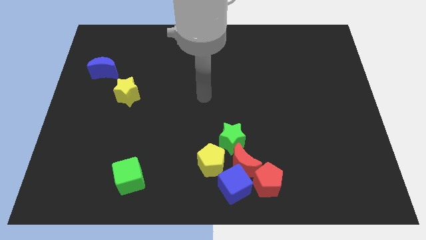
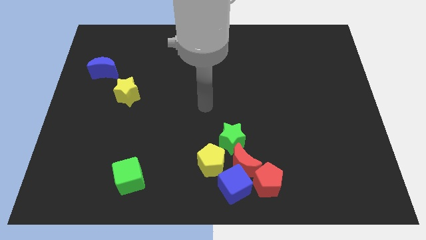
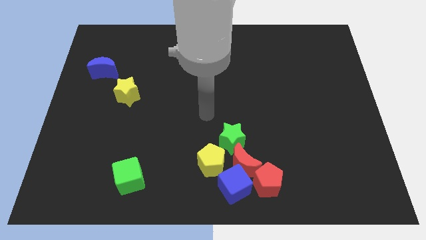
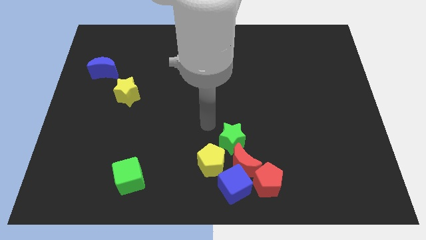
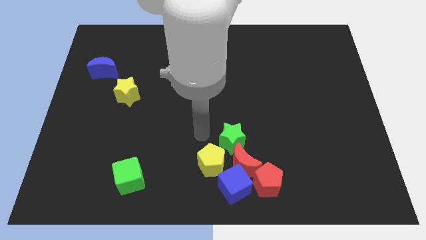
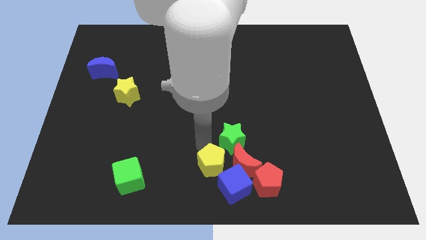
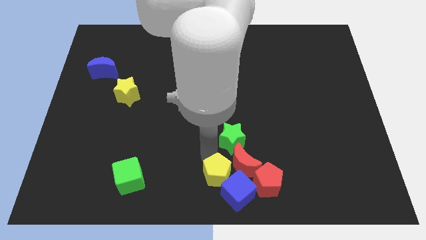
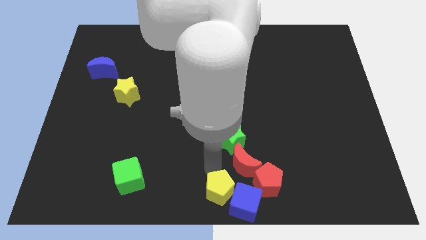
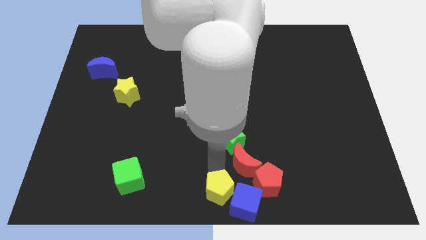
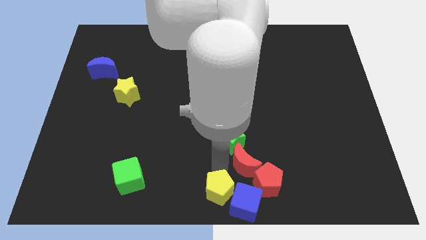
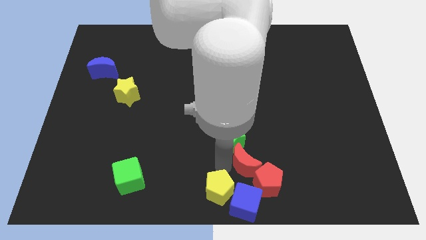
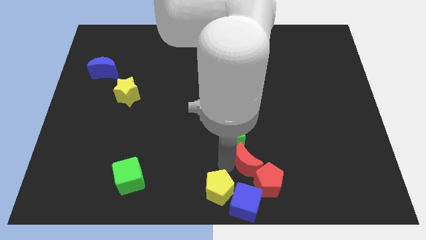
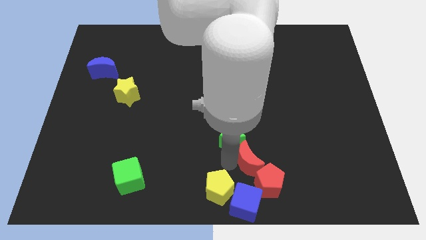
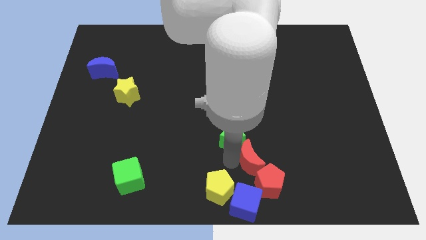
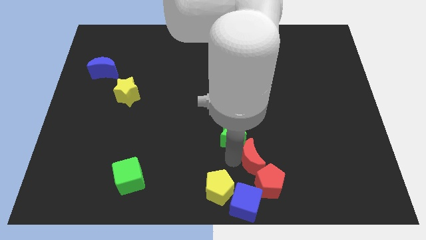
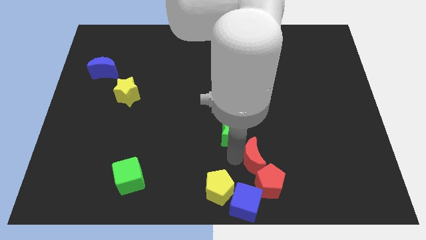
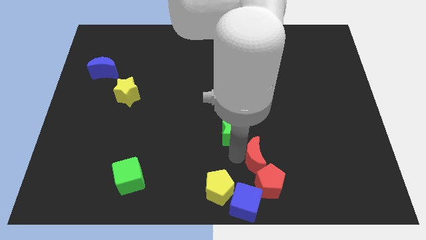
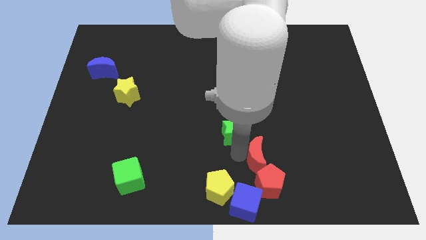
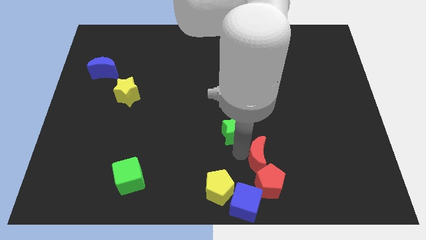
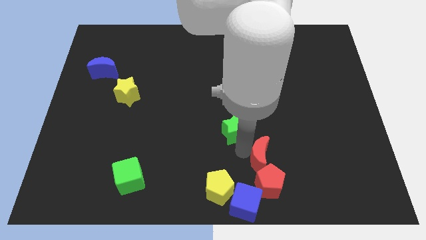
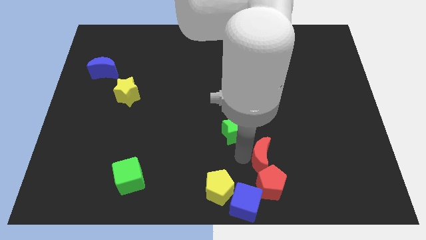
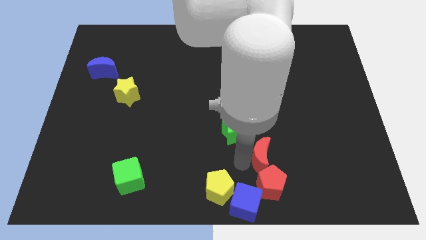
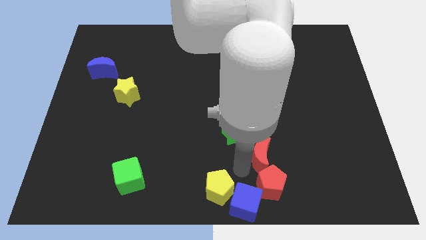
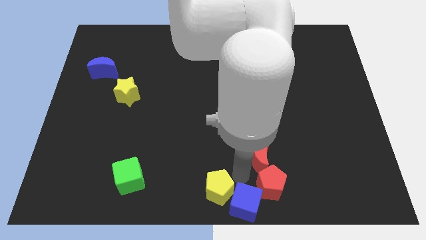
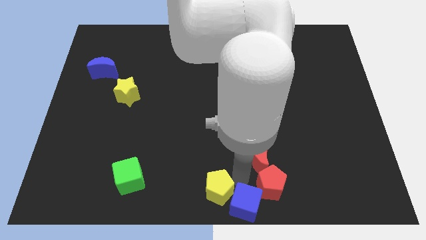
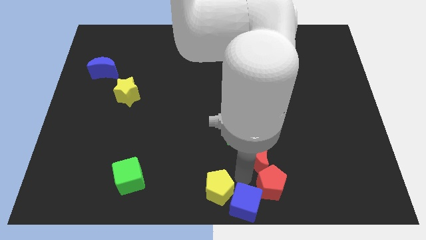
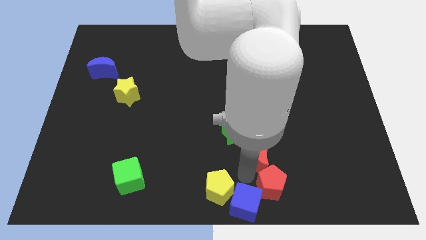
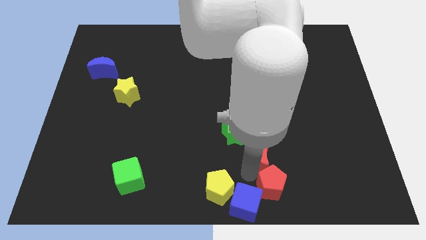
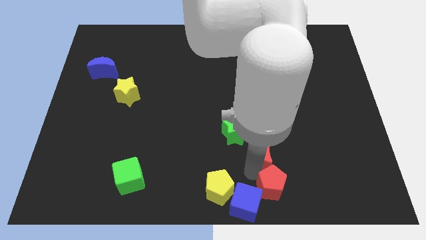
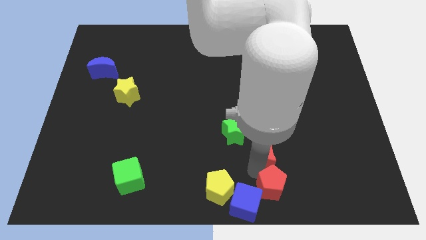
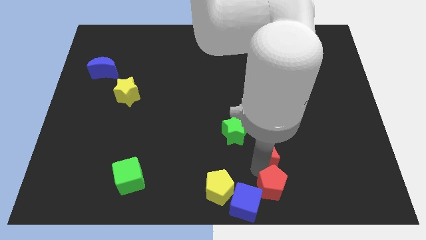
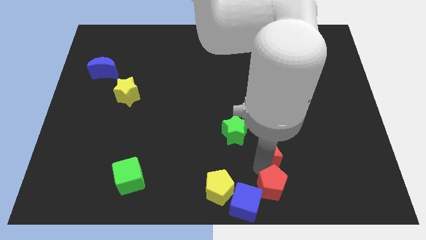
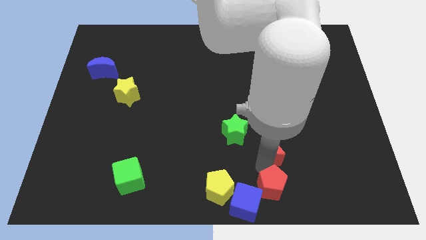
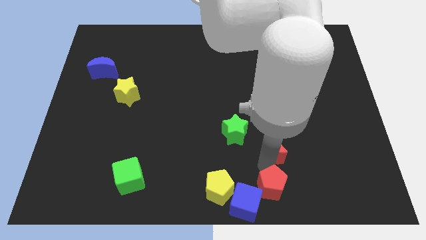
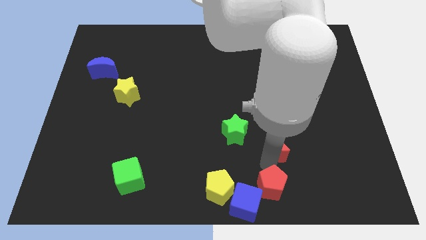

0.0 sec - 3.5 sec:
pull the red moon apart from the group of blocks

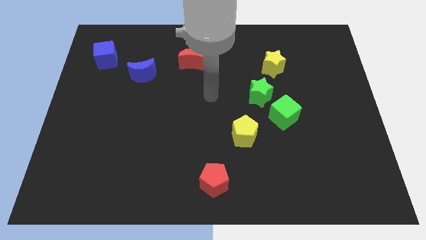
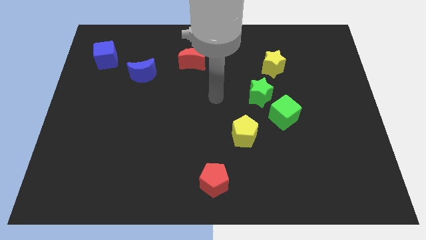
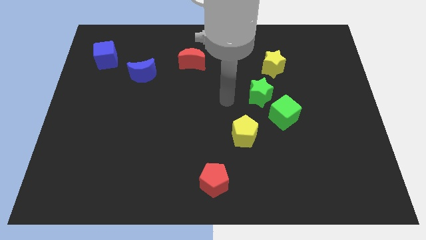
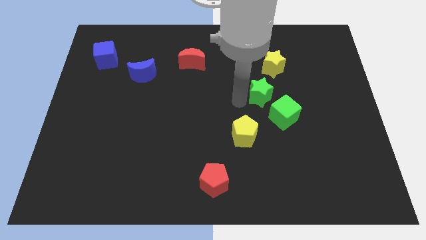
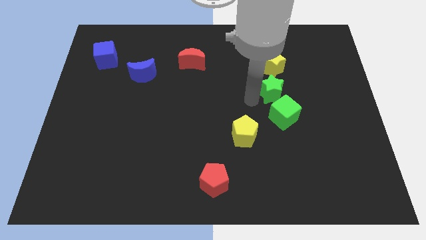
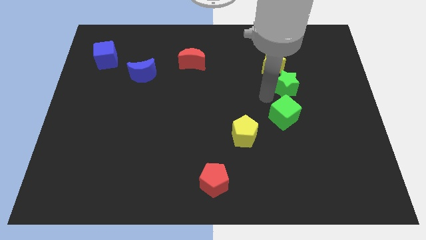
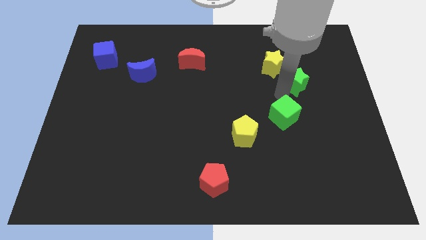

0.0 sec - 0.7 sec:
move the green cube away from the green star

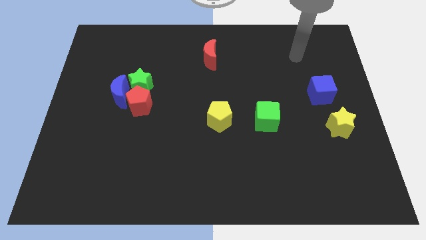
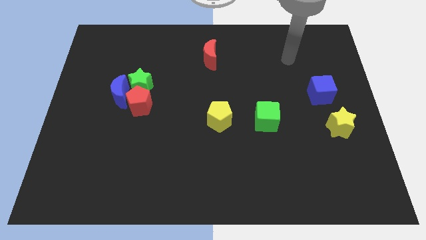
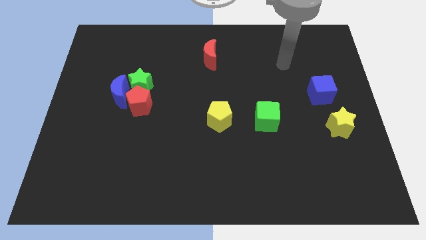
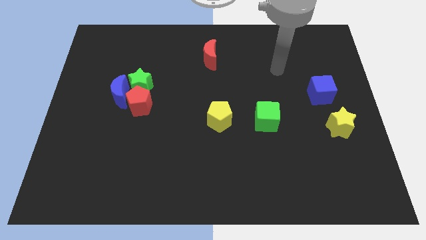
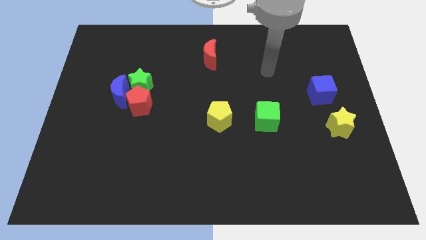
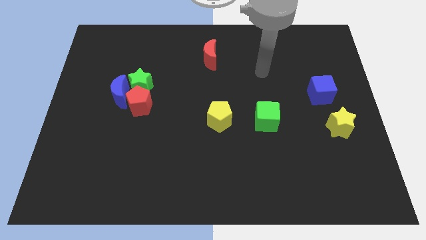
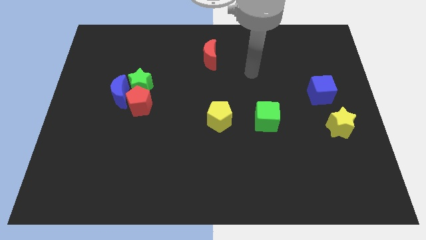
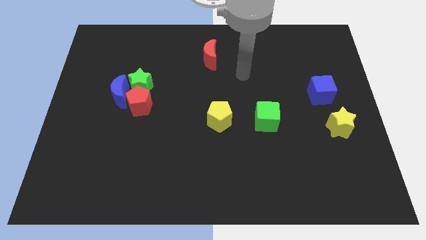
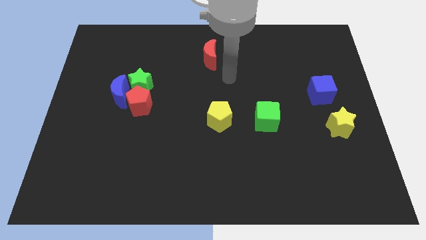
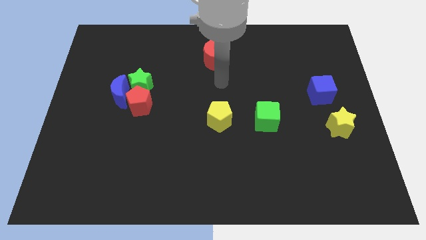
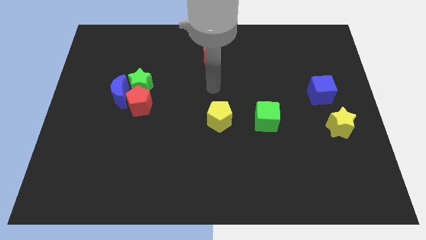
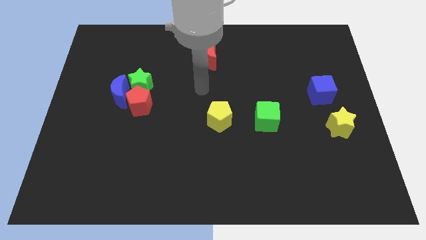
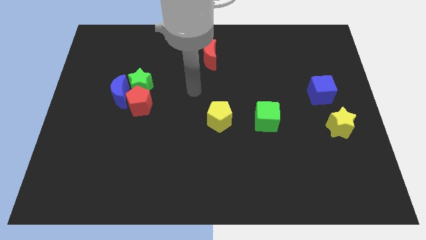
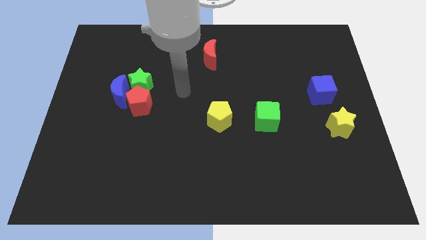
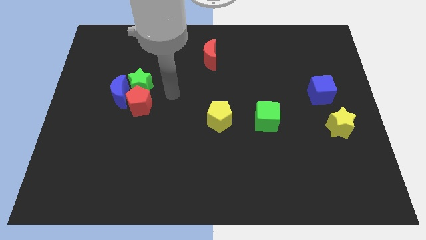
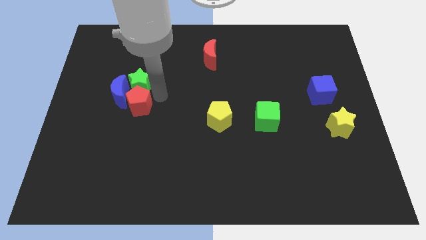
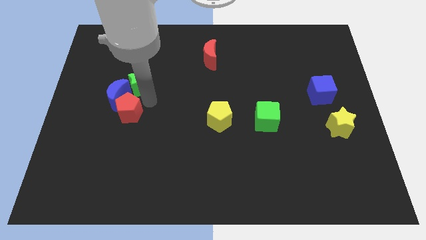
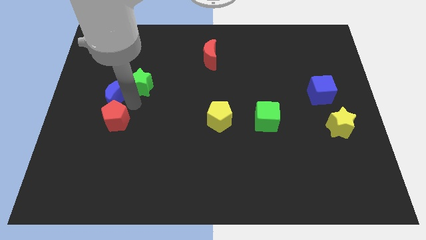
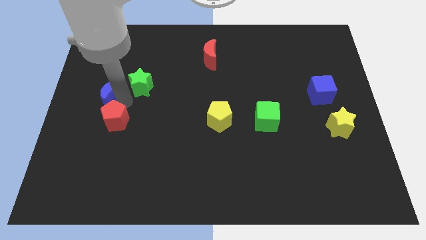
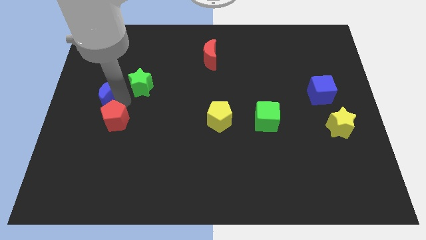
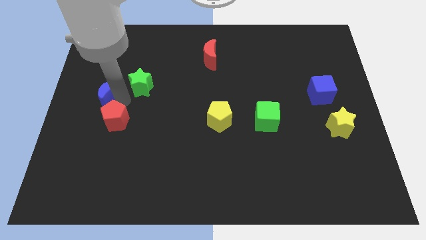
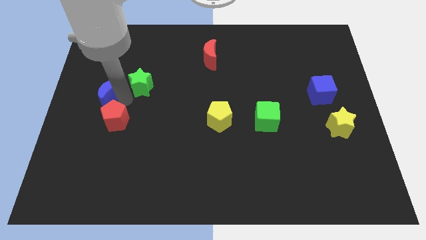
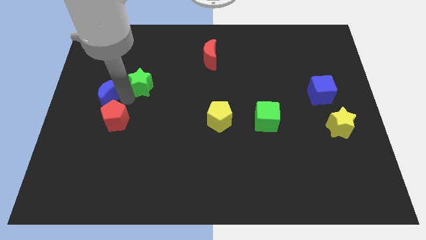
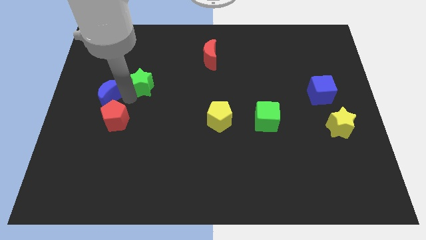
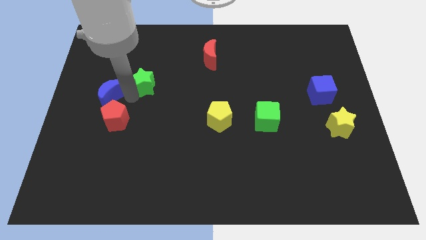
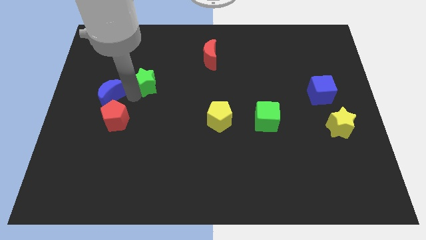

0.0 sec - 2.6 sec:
pull the green star apart from the blue moon and red pentagon

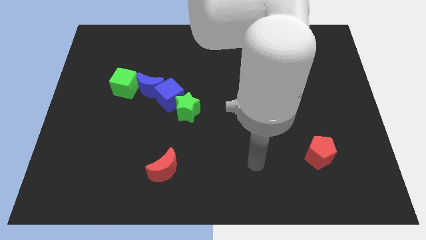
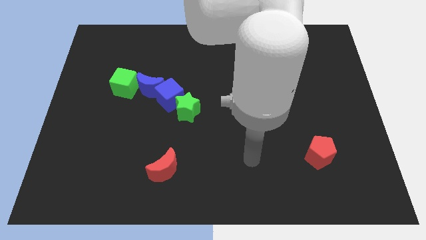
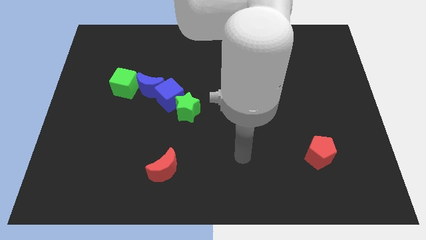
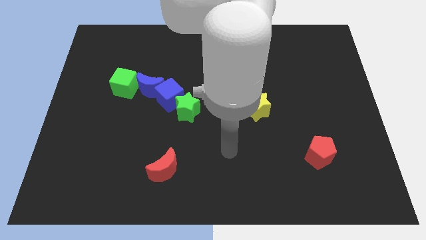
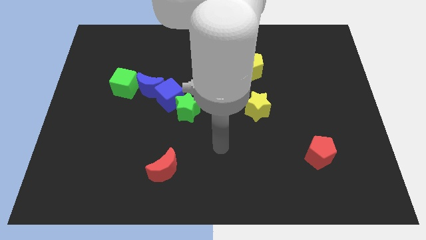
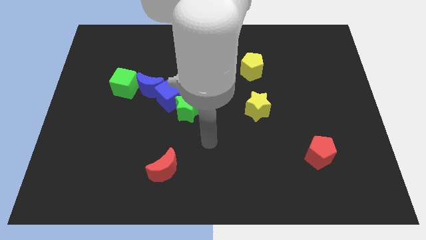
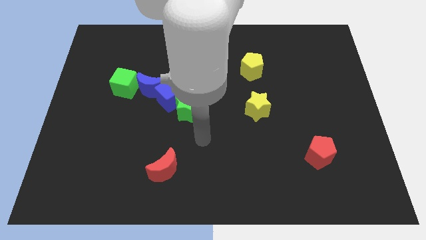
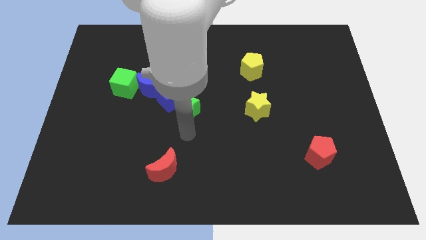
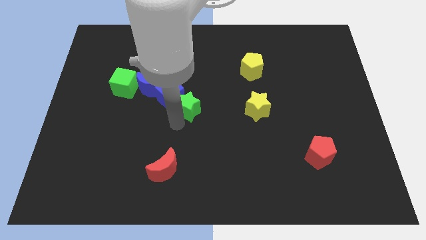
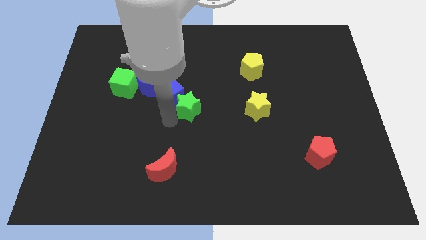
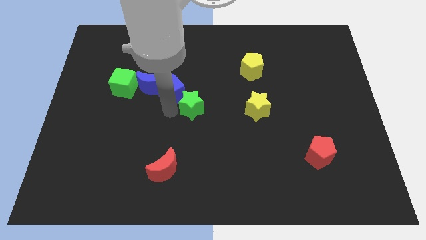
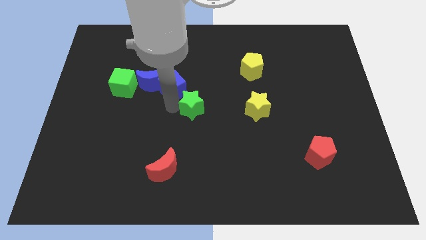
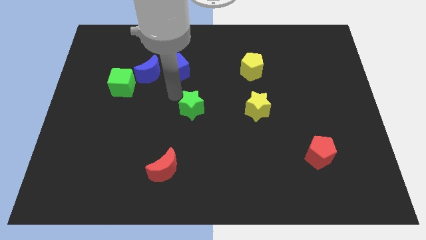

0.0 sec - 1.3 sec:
separate the green star from the blue cube

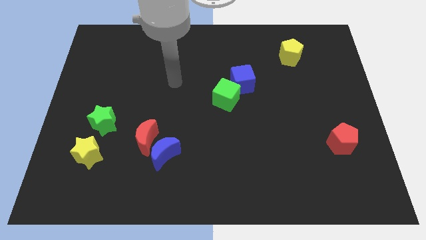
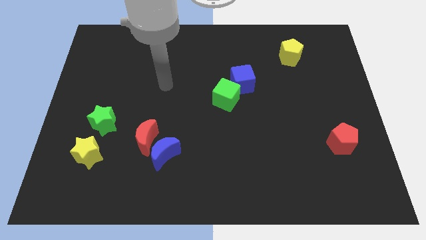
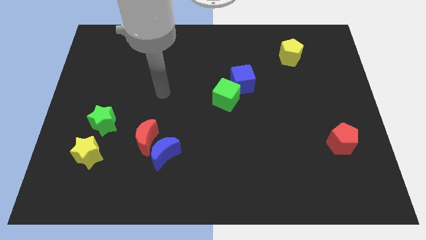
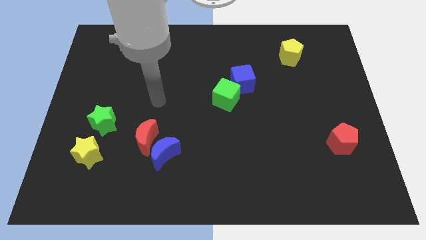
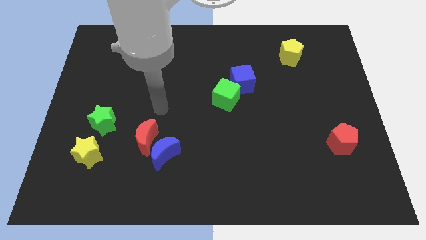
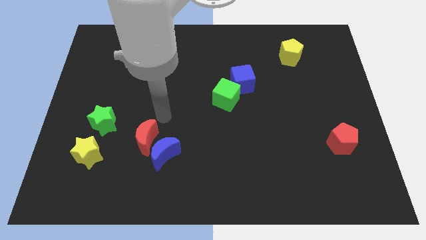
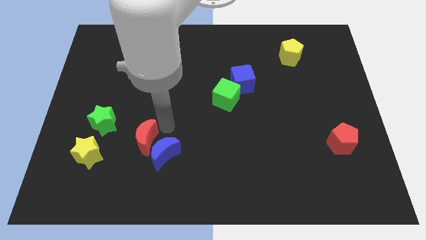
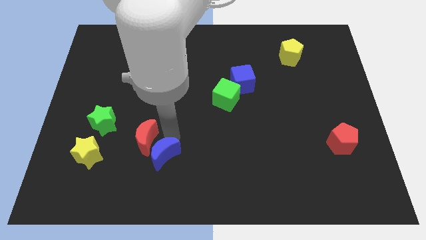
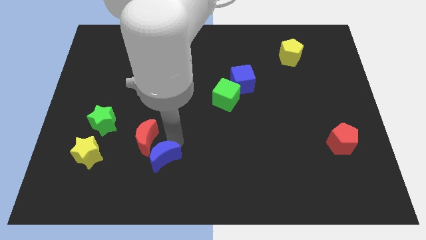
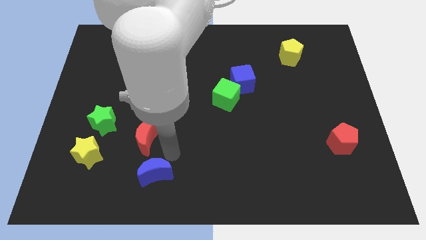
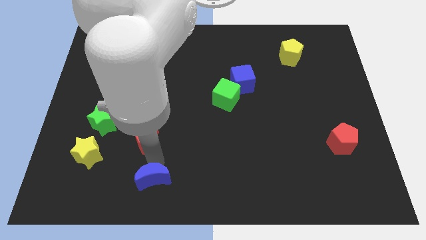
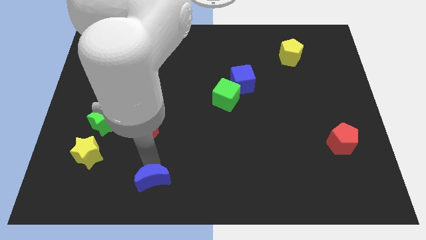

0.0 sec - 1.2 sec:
separate the red moon from the blue moon
